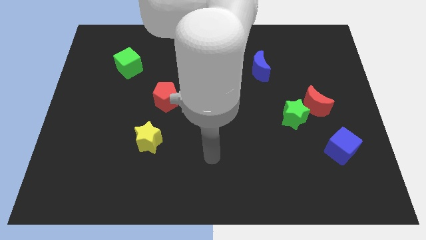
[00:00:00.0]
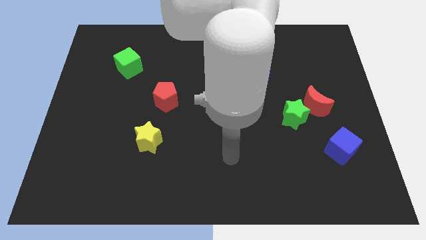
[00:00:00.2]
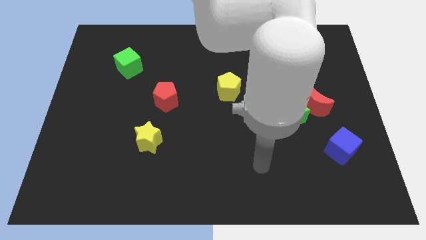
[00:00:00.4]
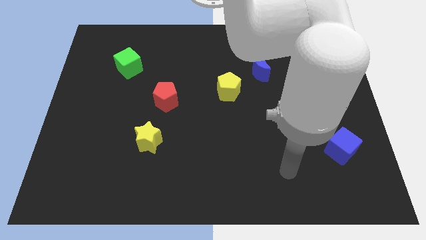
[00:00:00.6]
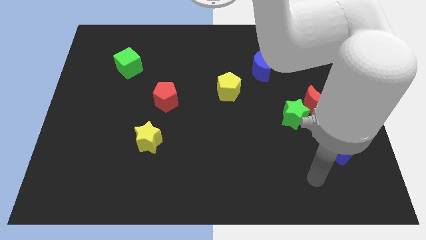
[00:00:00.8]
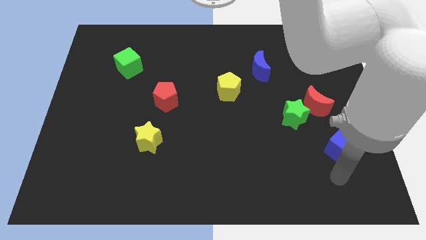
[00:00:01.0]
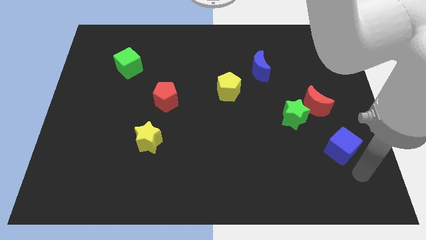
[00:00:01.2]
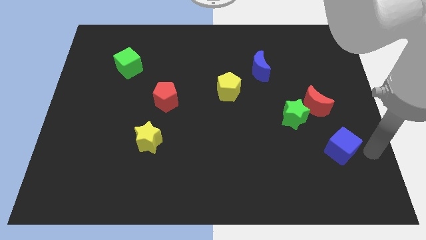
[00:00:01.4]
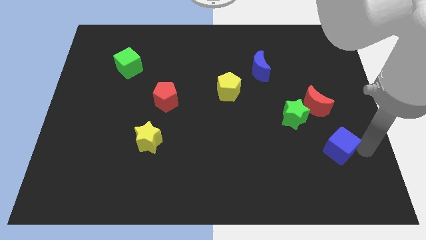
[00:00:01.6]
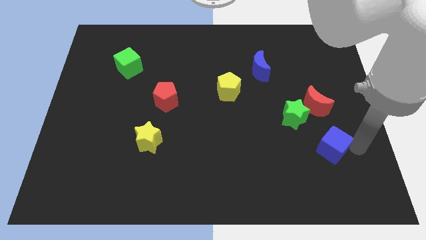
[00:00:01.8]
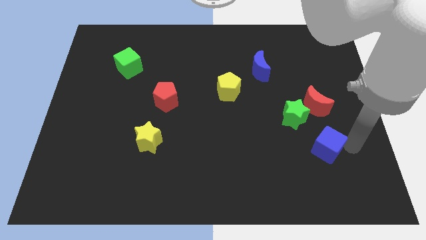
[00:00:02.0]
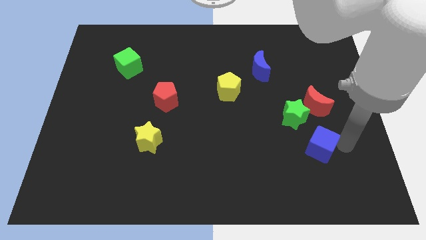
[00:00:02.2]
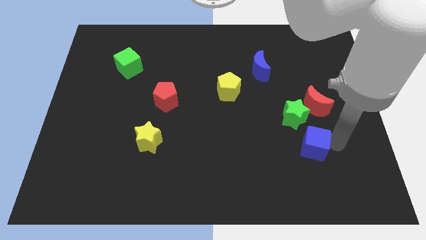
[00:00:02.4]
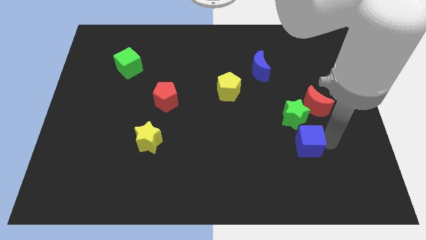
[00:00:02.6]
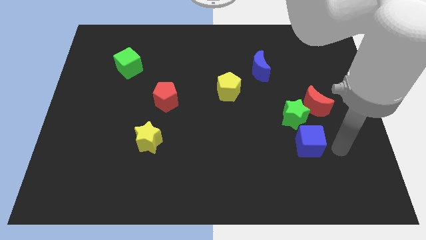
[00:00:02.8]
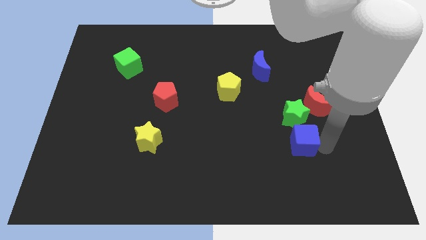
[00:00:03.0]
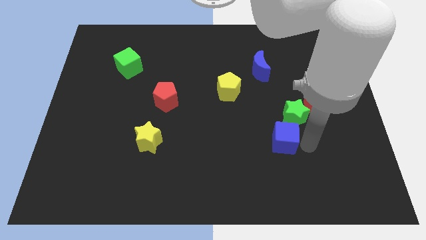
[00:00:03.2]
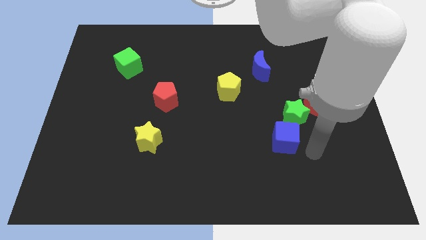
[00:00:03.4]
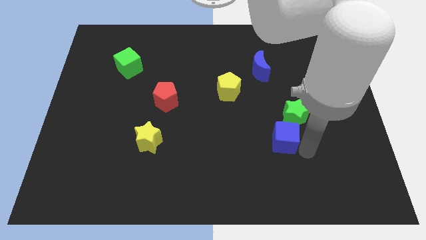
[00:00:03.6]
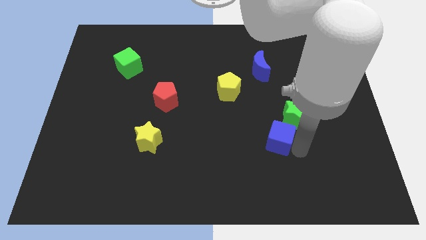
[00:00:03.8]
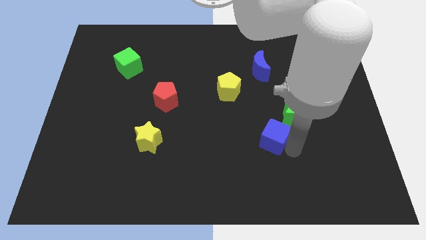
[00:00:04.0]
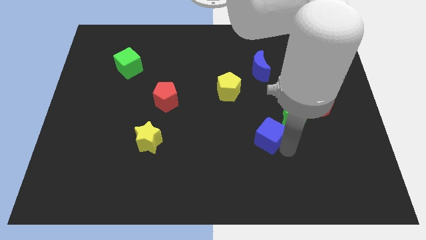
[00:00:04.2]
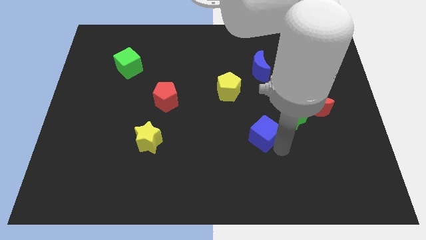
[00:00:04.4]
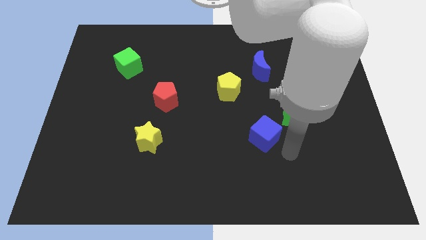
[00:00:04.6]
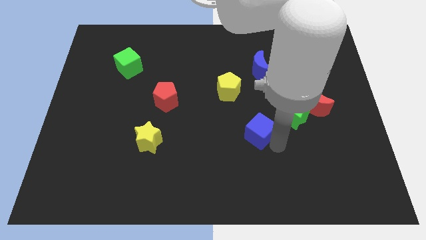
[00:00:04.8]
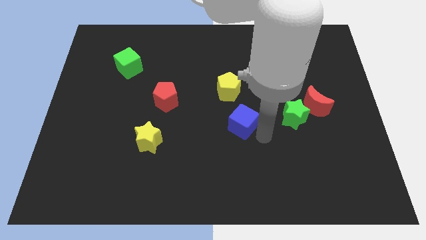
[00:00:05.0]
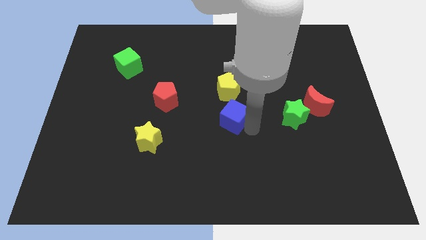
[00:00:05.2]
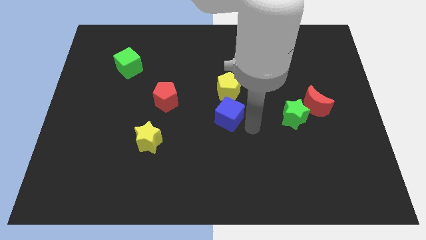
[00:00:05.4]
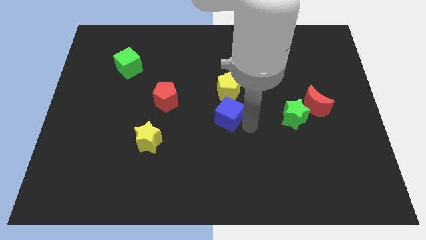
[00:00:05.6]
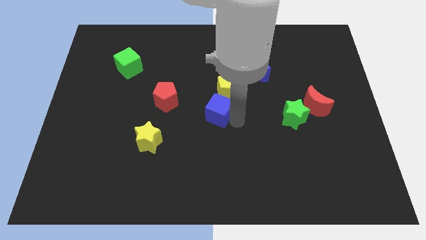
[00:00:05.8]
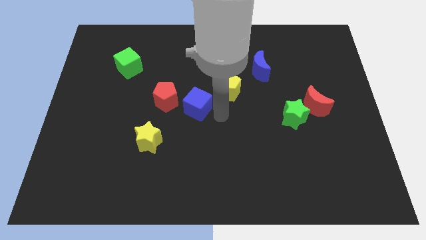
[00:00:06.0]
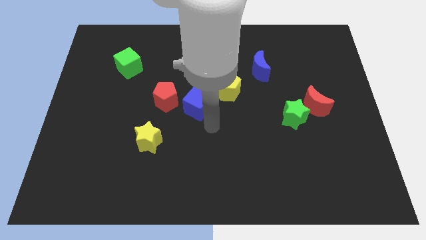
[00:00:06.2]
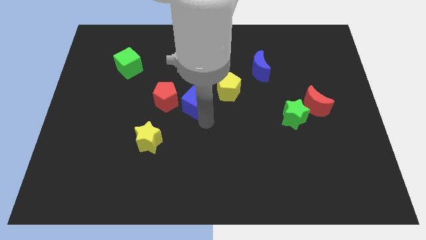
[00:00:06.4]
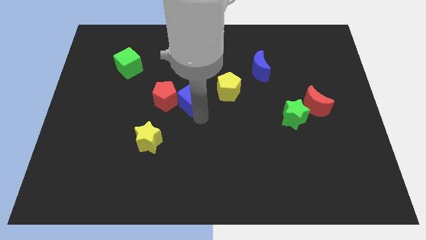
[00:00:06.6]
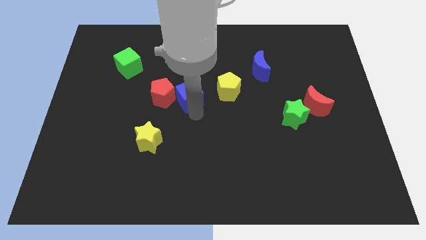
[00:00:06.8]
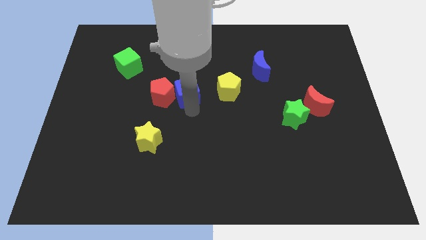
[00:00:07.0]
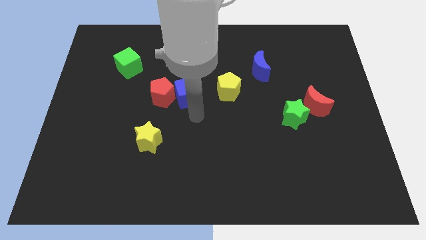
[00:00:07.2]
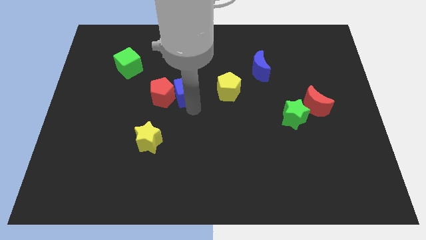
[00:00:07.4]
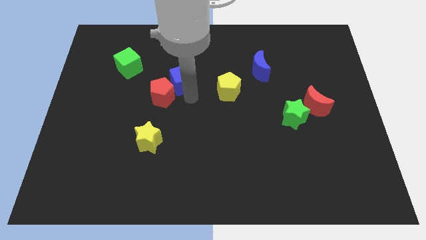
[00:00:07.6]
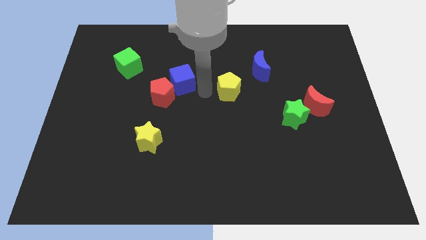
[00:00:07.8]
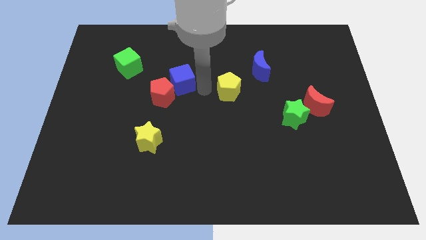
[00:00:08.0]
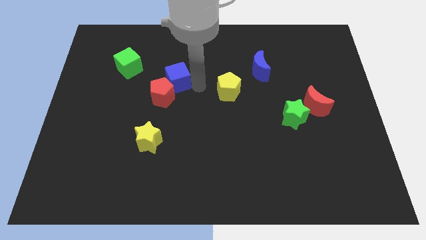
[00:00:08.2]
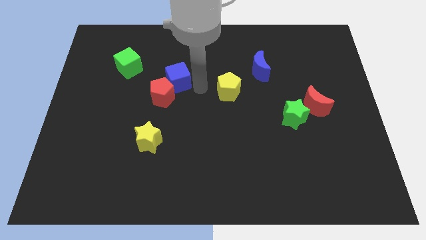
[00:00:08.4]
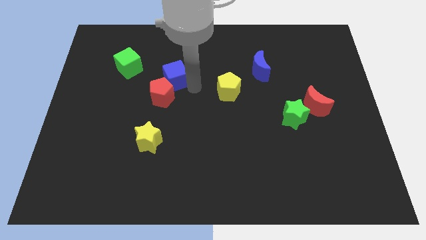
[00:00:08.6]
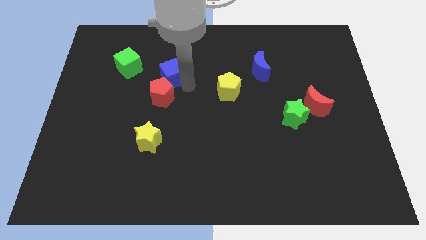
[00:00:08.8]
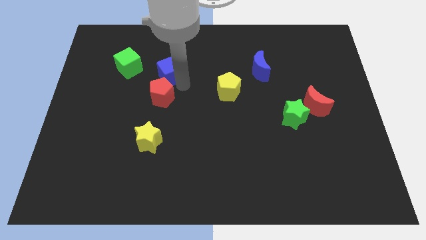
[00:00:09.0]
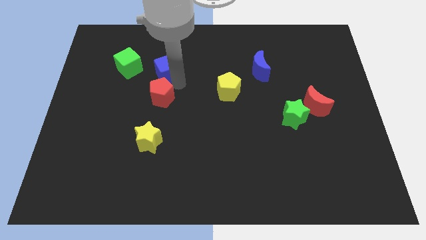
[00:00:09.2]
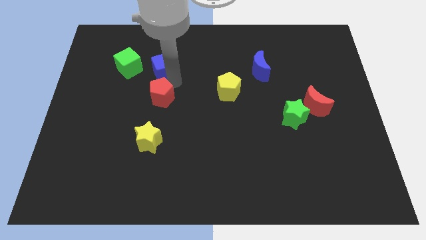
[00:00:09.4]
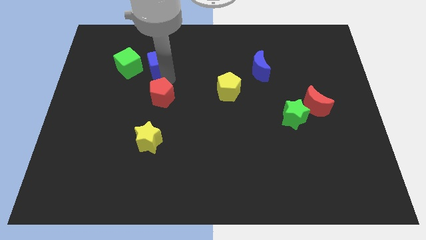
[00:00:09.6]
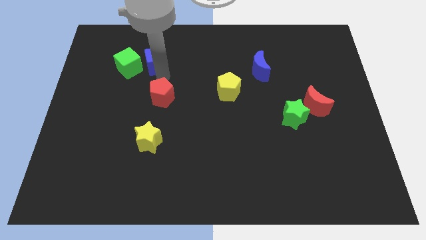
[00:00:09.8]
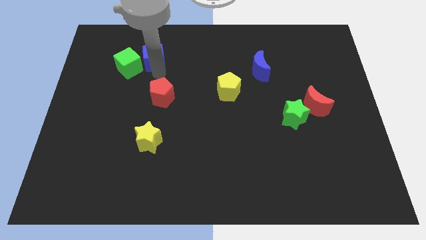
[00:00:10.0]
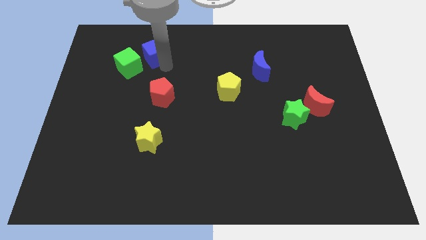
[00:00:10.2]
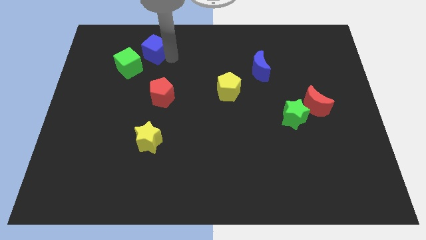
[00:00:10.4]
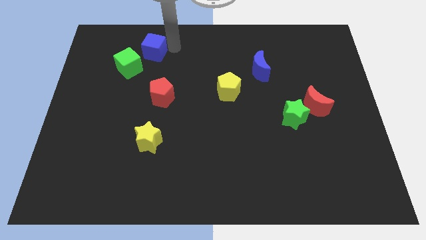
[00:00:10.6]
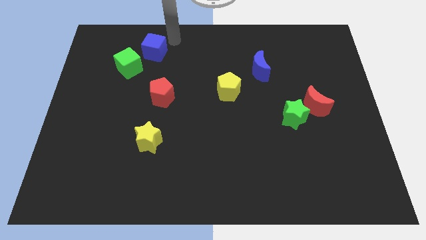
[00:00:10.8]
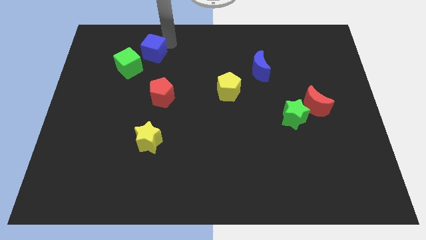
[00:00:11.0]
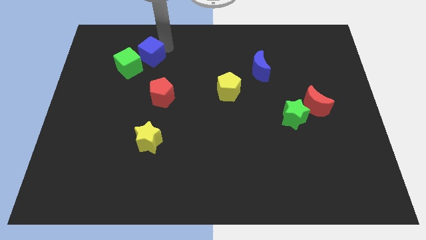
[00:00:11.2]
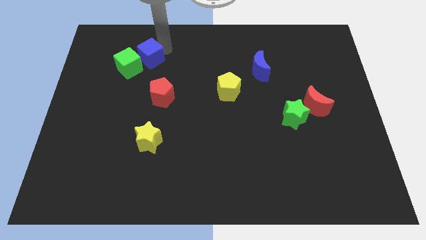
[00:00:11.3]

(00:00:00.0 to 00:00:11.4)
put the blue cube to the green cube

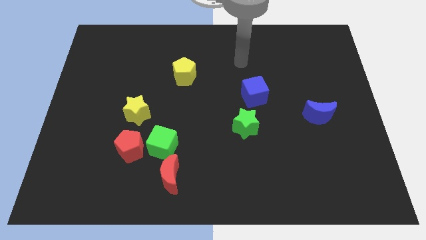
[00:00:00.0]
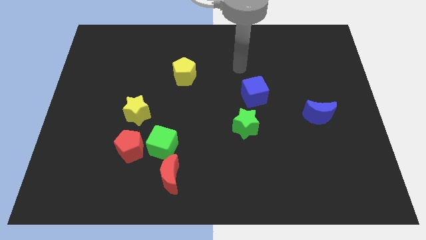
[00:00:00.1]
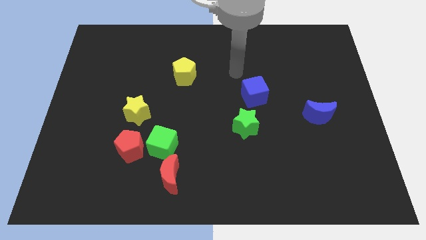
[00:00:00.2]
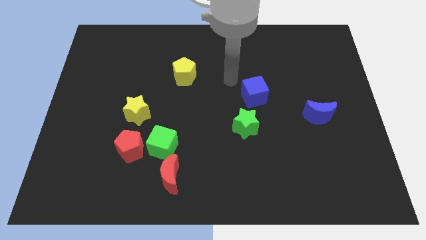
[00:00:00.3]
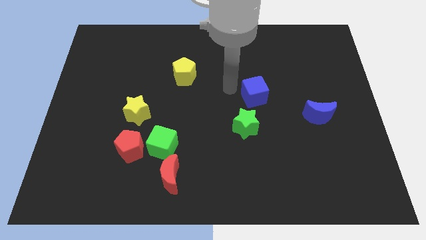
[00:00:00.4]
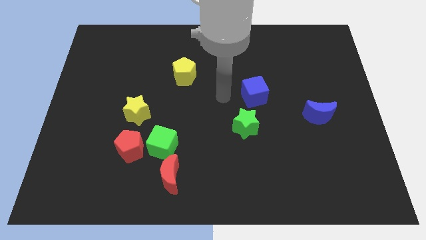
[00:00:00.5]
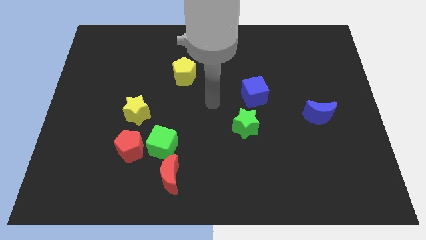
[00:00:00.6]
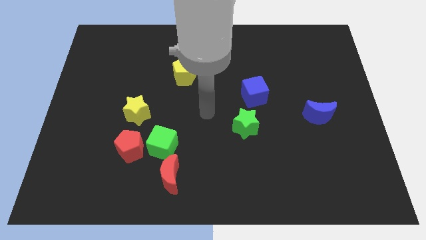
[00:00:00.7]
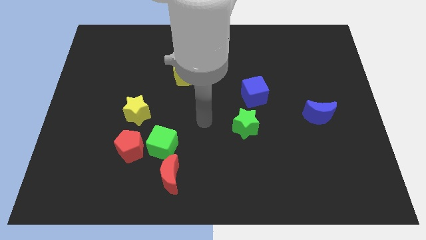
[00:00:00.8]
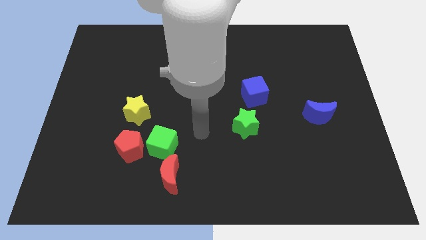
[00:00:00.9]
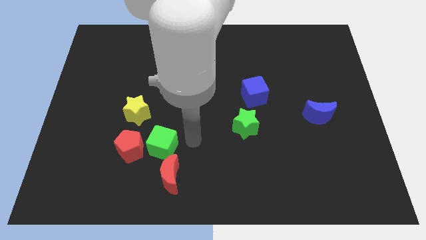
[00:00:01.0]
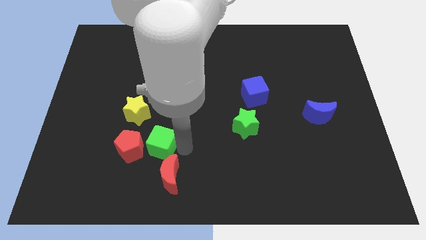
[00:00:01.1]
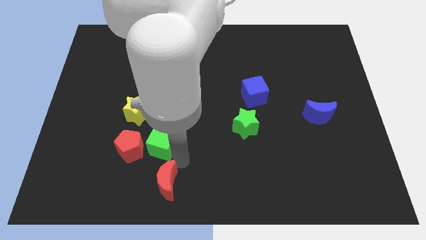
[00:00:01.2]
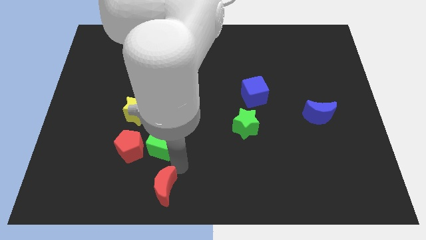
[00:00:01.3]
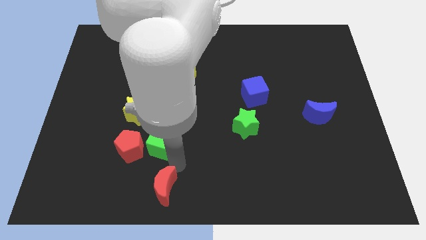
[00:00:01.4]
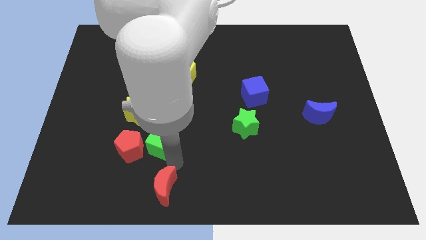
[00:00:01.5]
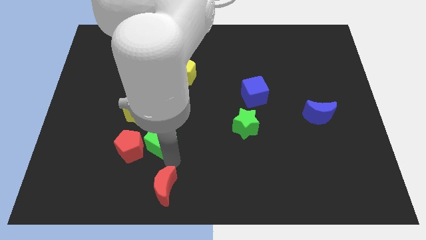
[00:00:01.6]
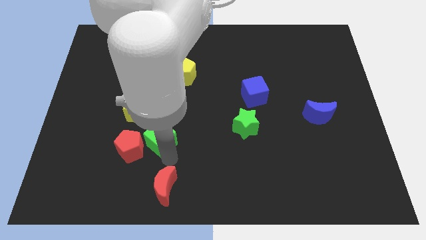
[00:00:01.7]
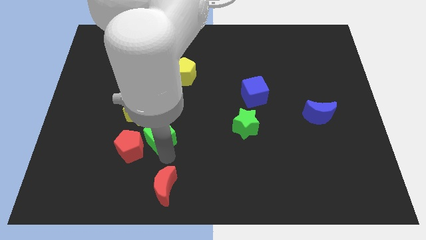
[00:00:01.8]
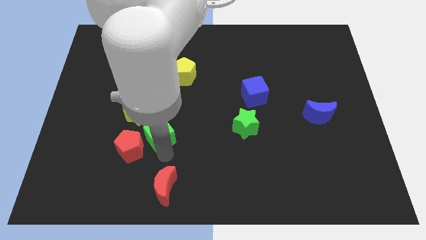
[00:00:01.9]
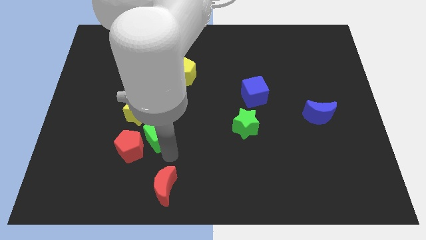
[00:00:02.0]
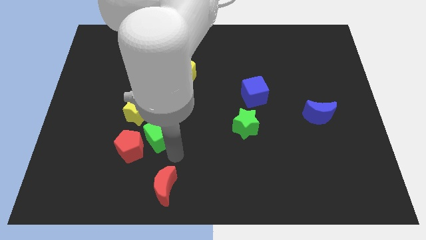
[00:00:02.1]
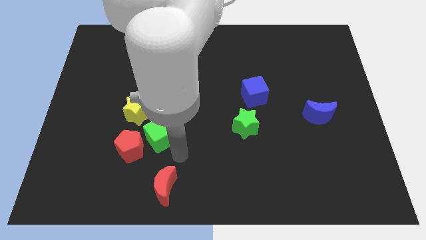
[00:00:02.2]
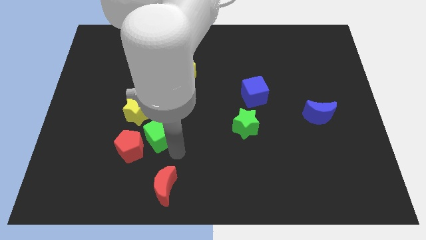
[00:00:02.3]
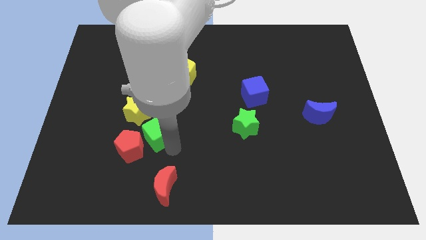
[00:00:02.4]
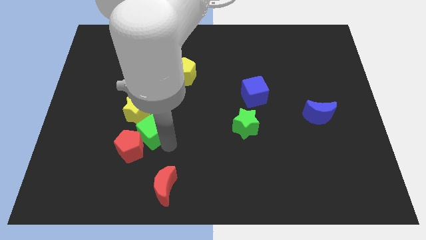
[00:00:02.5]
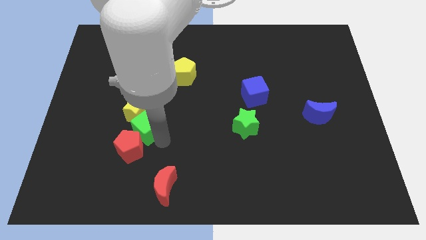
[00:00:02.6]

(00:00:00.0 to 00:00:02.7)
move the green cube towards the yellow star
